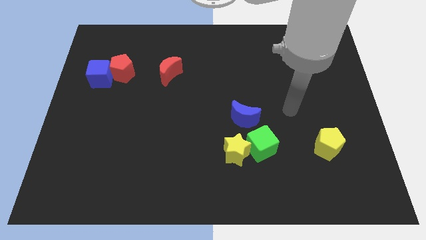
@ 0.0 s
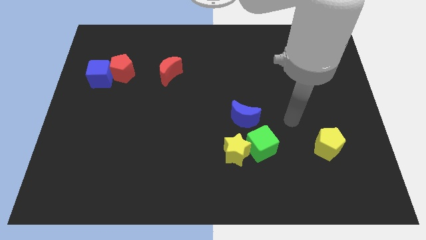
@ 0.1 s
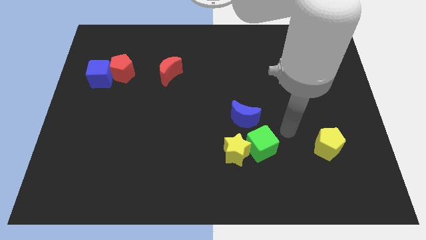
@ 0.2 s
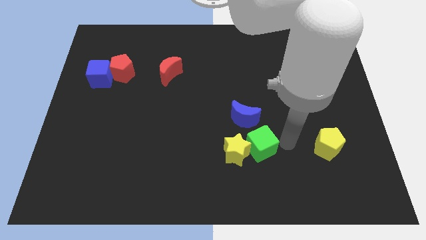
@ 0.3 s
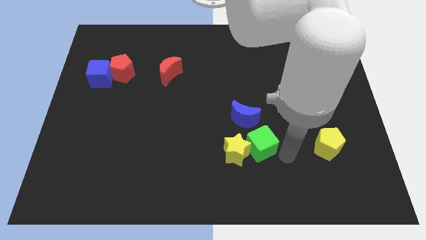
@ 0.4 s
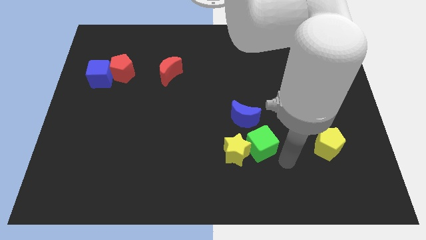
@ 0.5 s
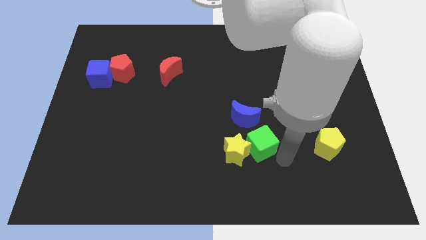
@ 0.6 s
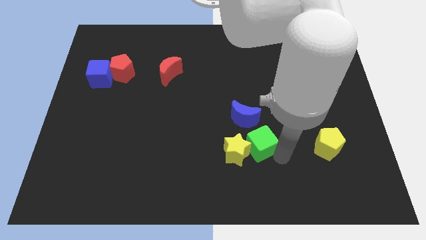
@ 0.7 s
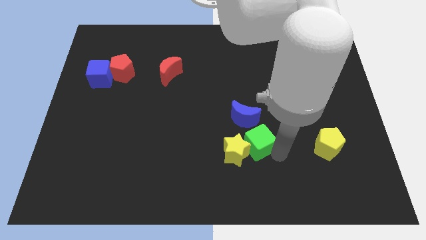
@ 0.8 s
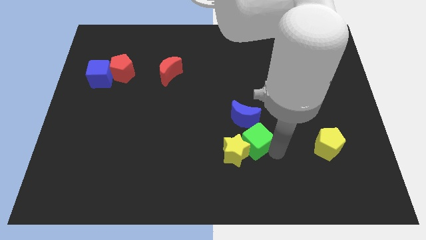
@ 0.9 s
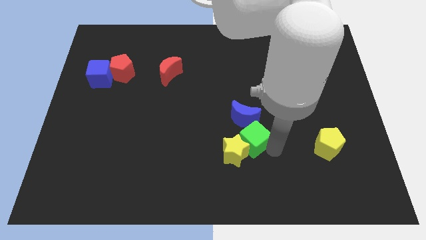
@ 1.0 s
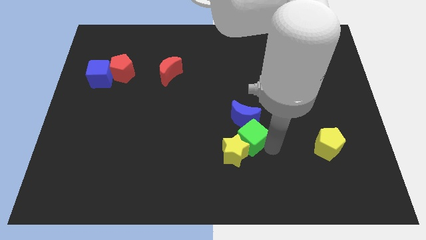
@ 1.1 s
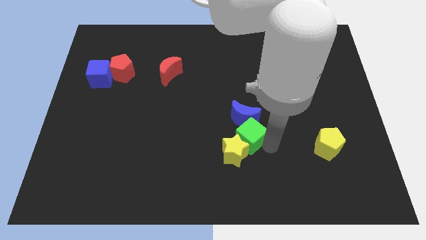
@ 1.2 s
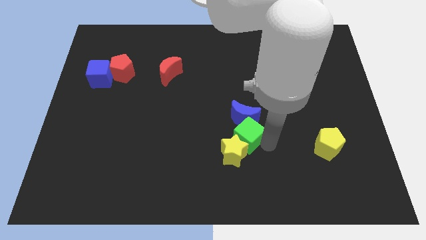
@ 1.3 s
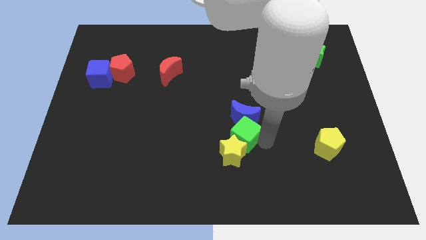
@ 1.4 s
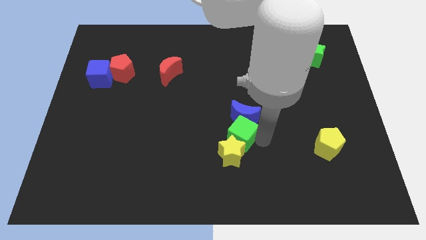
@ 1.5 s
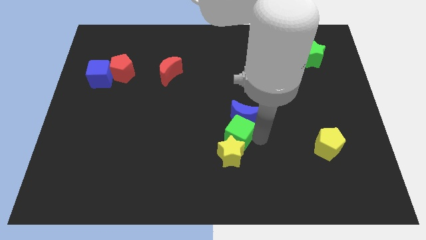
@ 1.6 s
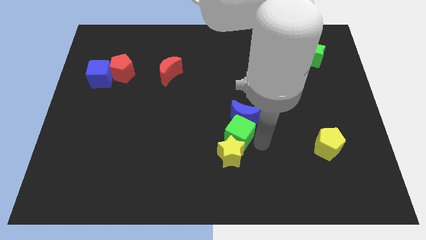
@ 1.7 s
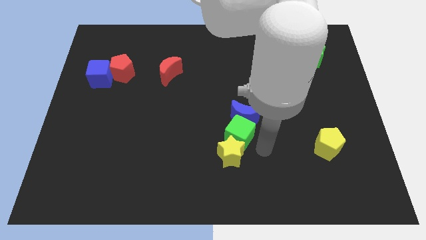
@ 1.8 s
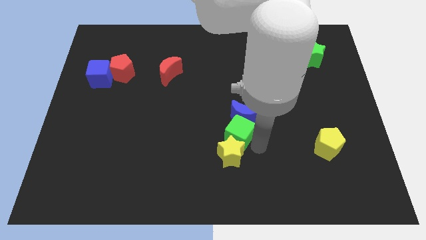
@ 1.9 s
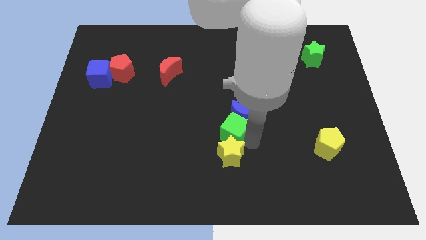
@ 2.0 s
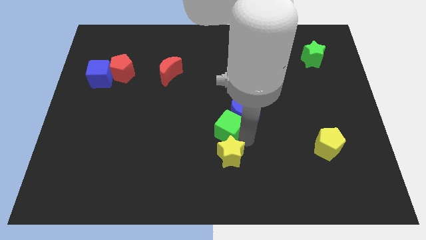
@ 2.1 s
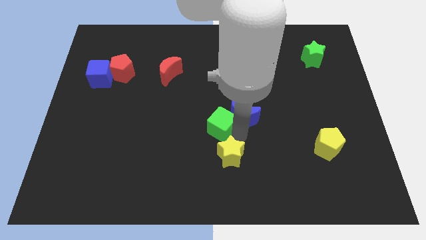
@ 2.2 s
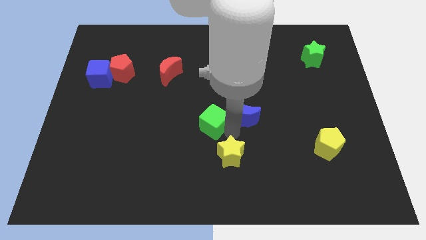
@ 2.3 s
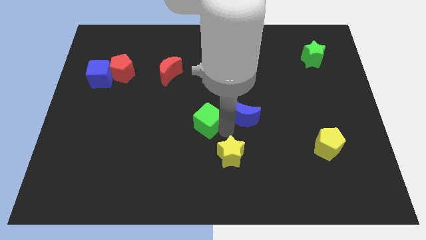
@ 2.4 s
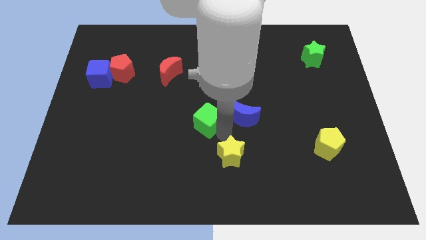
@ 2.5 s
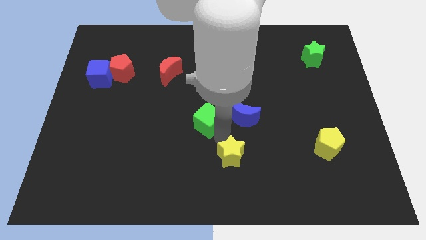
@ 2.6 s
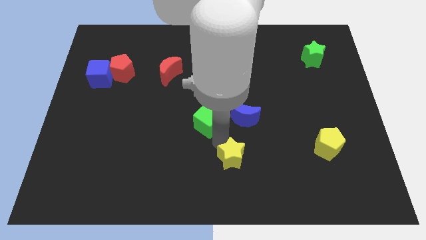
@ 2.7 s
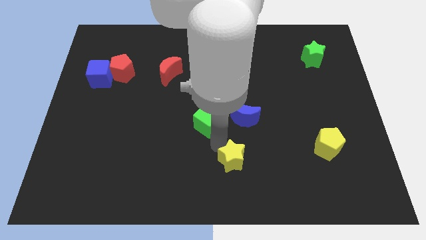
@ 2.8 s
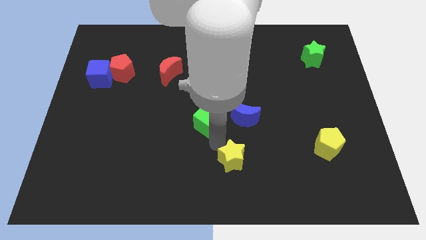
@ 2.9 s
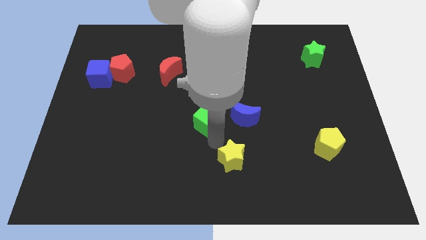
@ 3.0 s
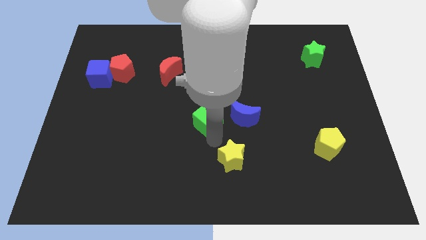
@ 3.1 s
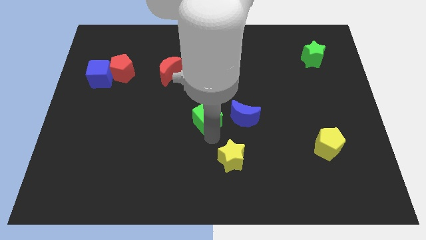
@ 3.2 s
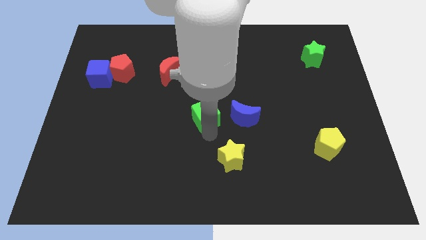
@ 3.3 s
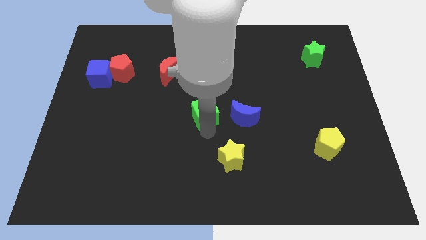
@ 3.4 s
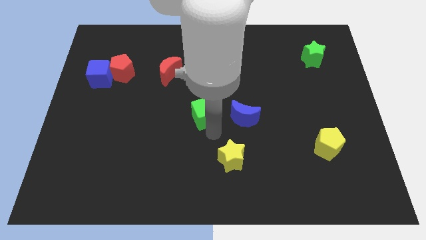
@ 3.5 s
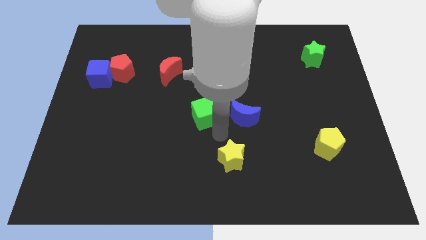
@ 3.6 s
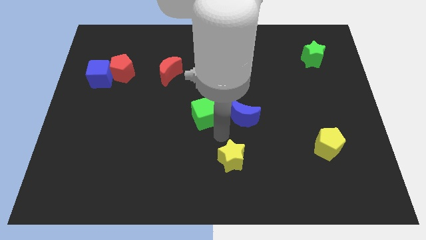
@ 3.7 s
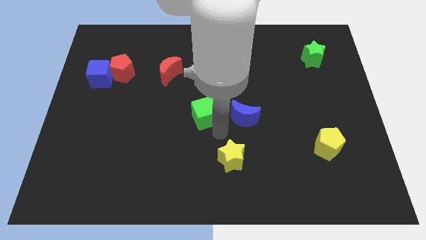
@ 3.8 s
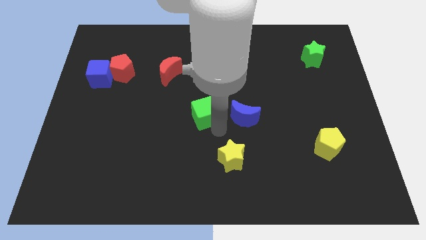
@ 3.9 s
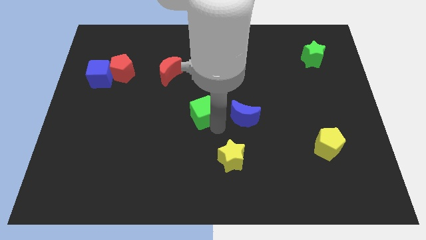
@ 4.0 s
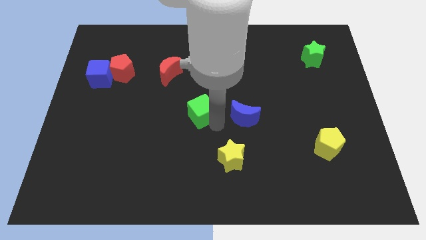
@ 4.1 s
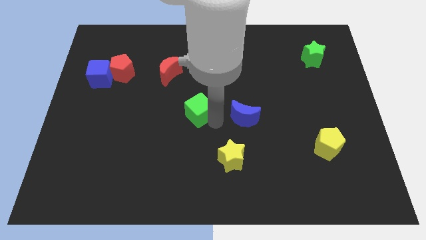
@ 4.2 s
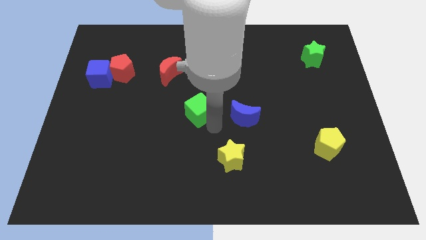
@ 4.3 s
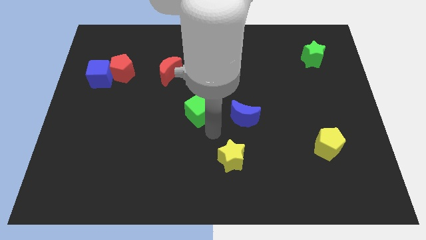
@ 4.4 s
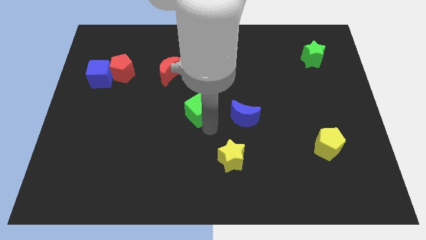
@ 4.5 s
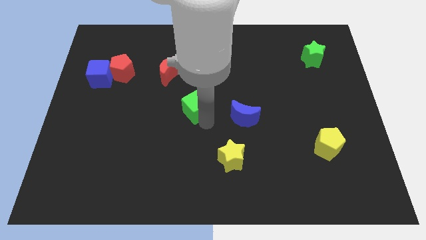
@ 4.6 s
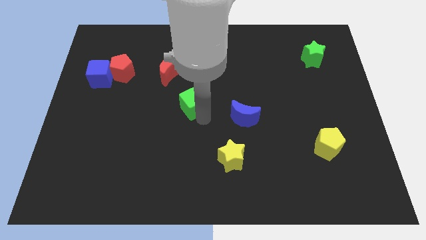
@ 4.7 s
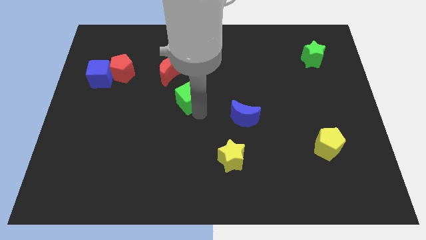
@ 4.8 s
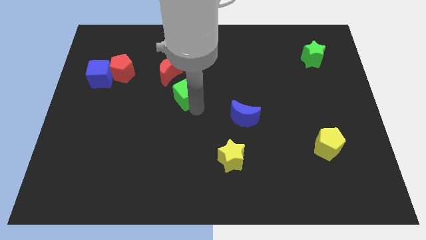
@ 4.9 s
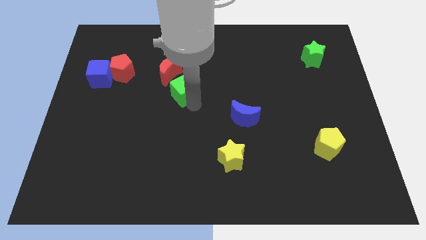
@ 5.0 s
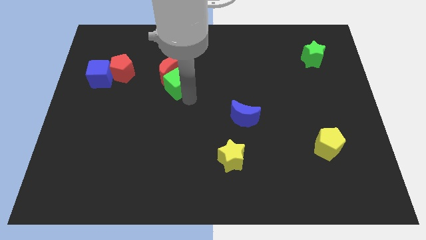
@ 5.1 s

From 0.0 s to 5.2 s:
move the green cube towards the red moon

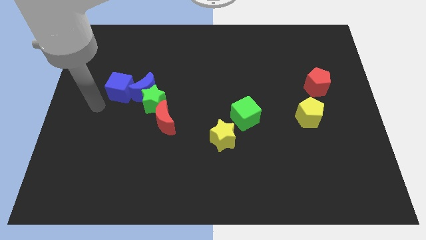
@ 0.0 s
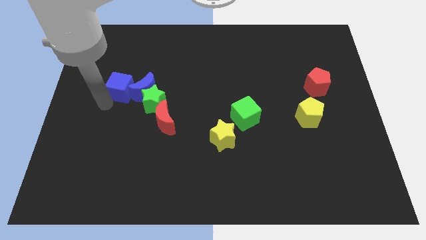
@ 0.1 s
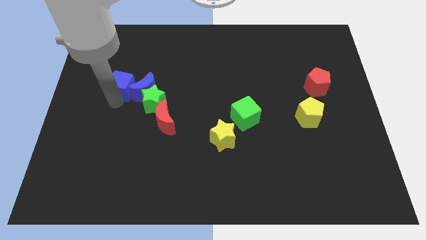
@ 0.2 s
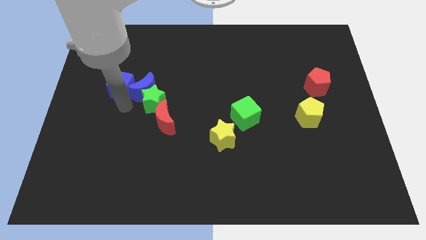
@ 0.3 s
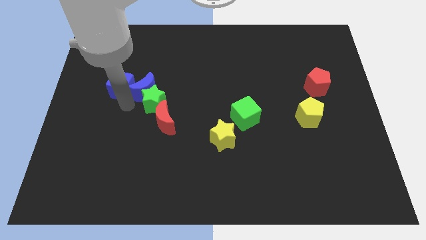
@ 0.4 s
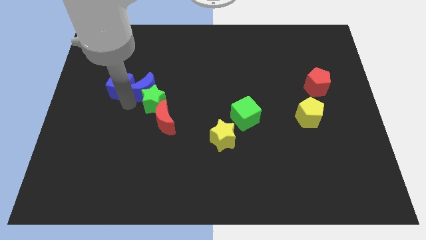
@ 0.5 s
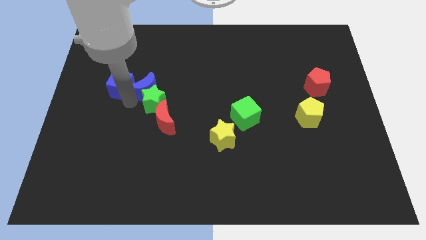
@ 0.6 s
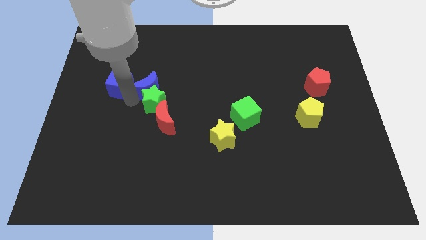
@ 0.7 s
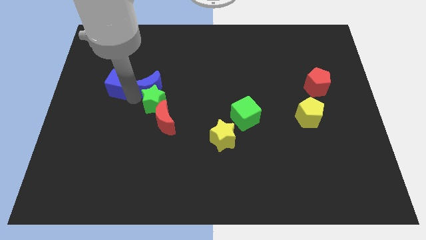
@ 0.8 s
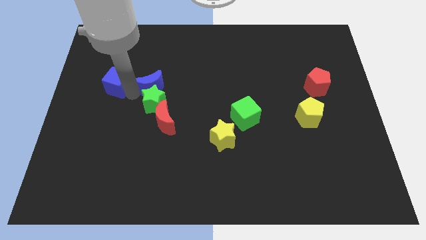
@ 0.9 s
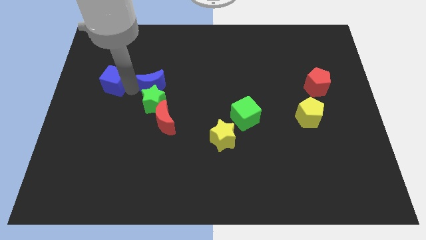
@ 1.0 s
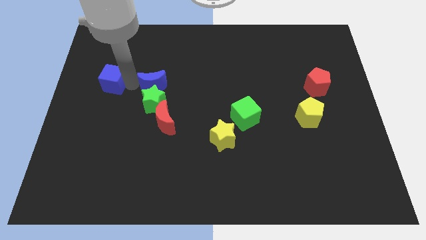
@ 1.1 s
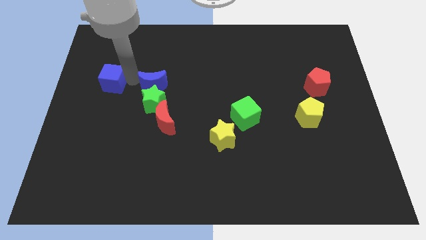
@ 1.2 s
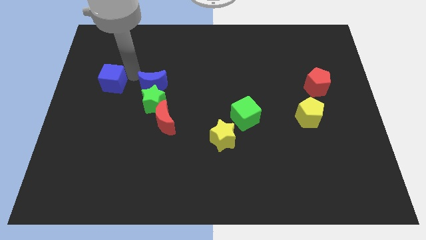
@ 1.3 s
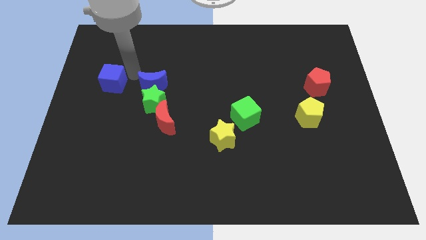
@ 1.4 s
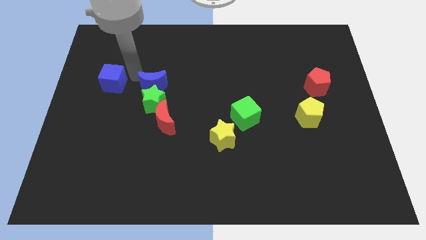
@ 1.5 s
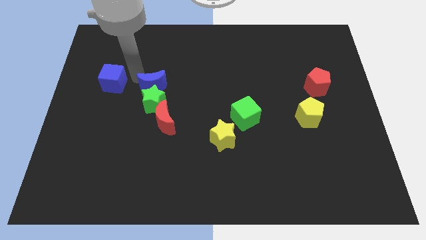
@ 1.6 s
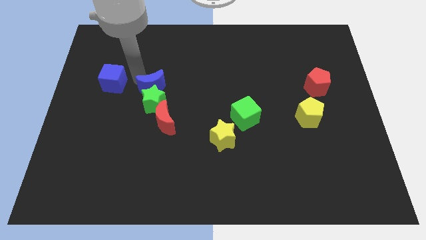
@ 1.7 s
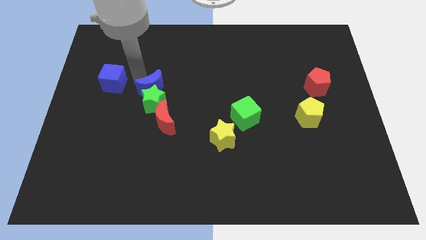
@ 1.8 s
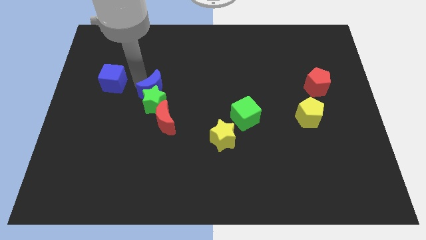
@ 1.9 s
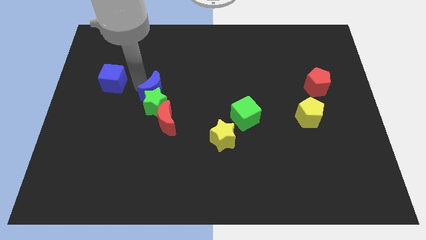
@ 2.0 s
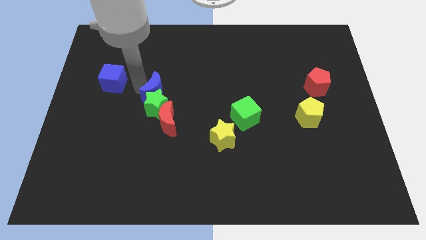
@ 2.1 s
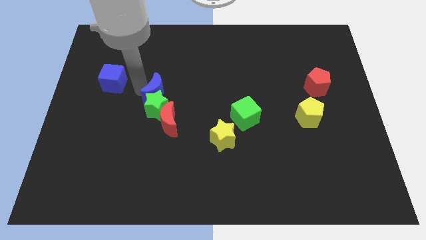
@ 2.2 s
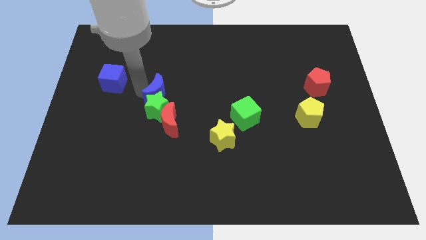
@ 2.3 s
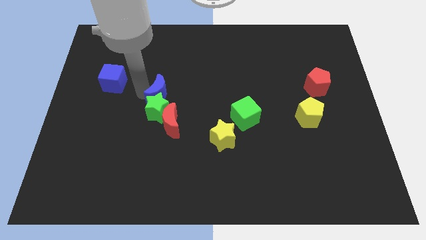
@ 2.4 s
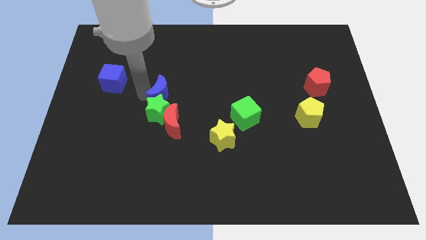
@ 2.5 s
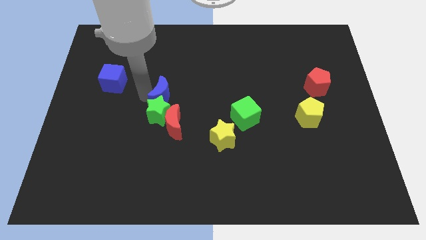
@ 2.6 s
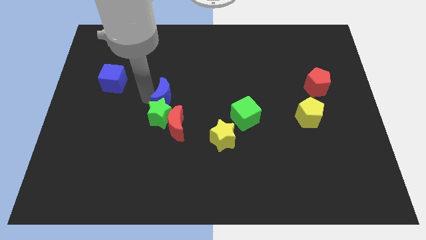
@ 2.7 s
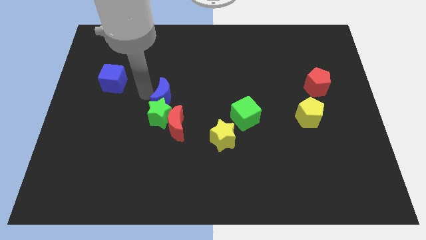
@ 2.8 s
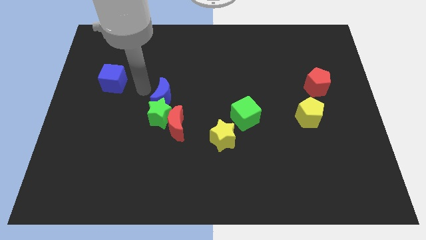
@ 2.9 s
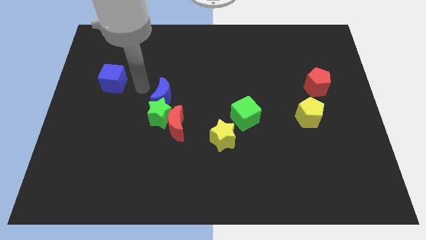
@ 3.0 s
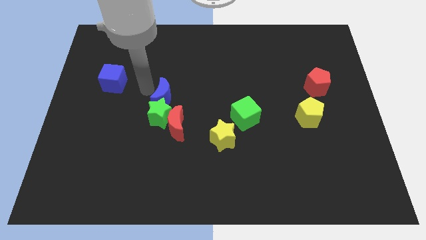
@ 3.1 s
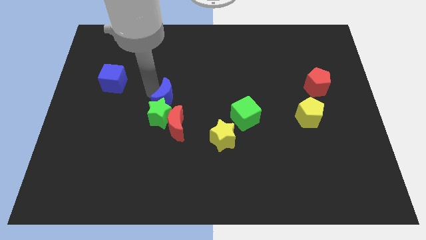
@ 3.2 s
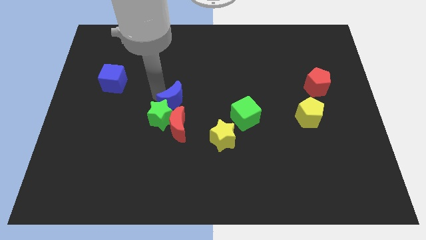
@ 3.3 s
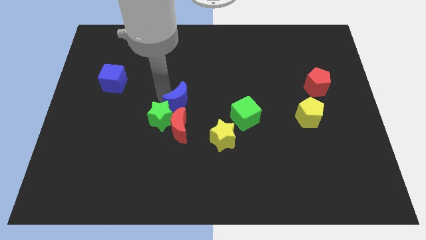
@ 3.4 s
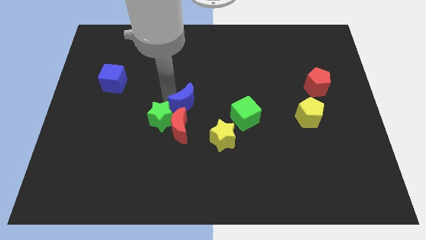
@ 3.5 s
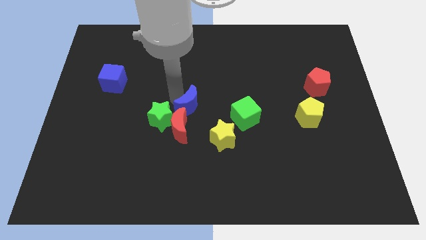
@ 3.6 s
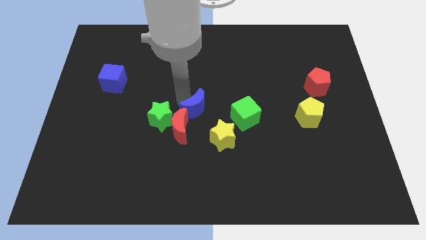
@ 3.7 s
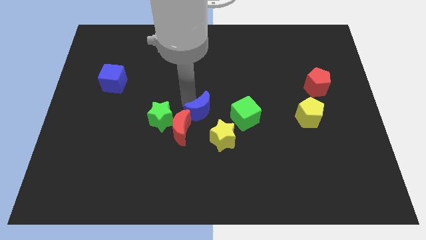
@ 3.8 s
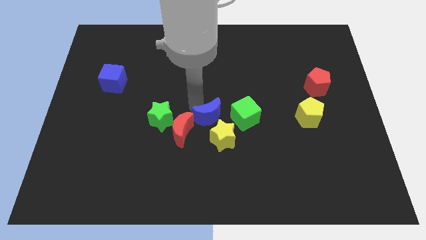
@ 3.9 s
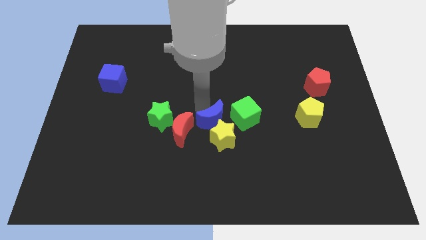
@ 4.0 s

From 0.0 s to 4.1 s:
slide the blue moon towards the yellow star
